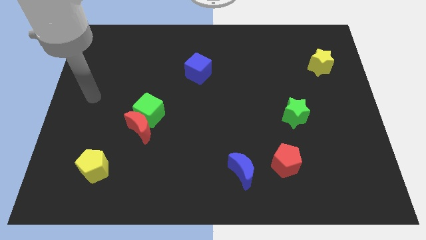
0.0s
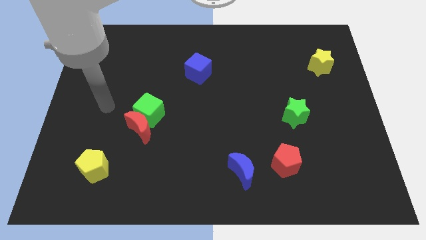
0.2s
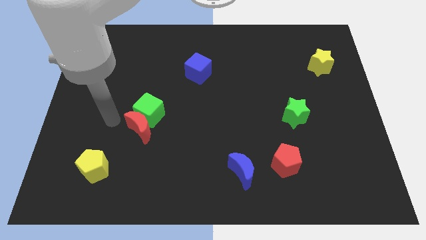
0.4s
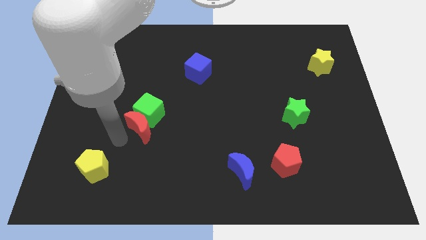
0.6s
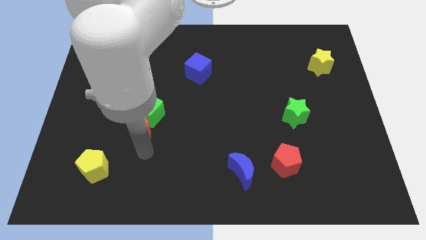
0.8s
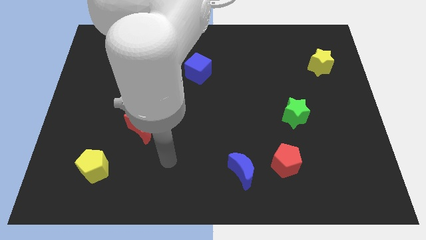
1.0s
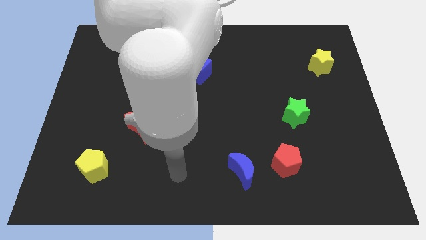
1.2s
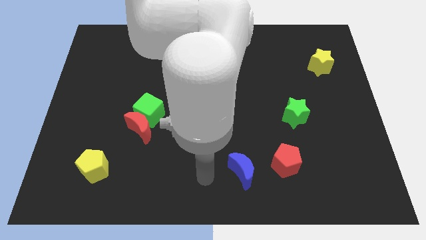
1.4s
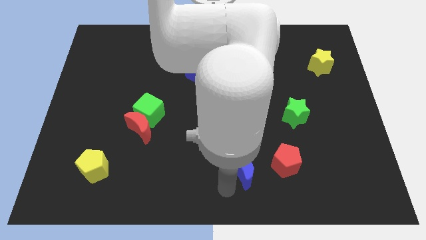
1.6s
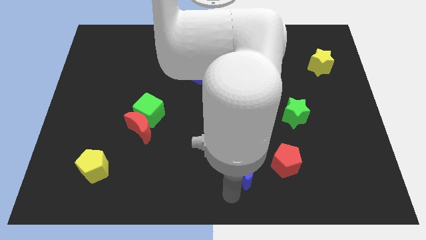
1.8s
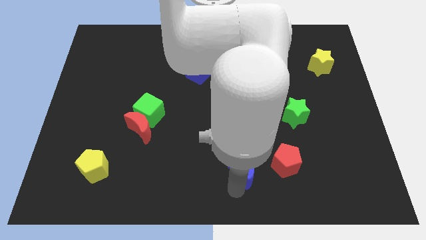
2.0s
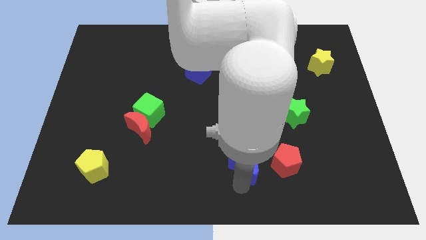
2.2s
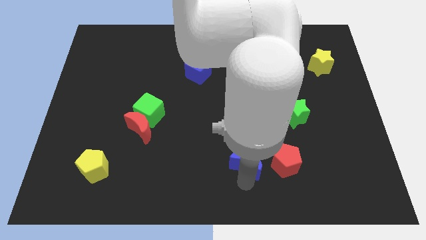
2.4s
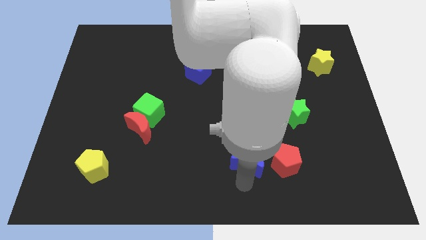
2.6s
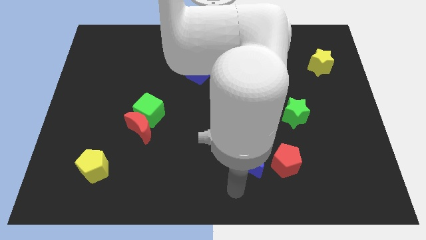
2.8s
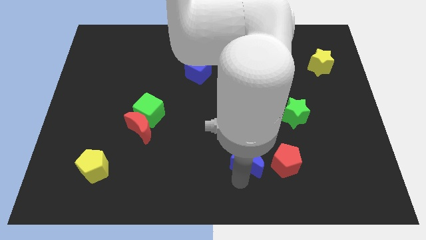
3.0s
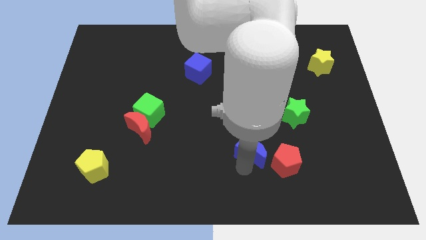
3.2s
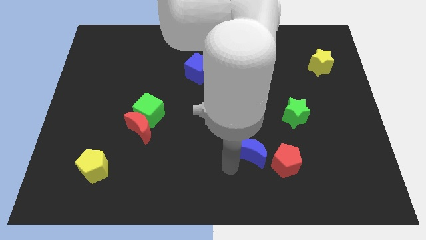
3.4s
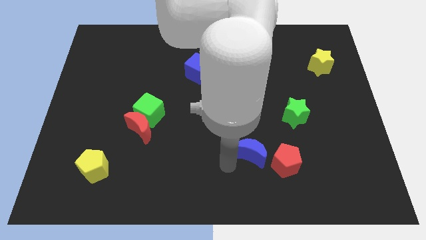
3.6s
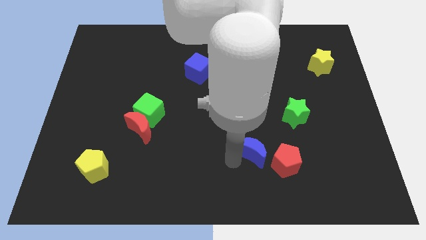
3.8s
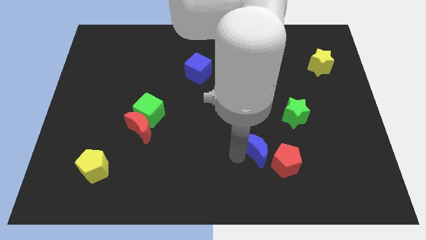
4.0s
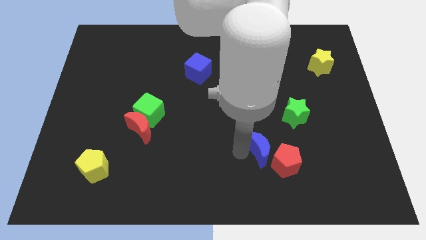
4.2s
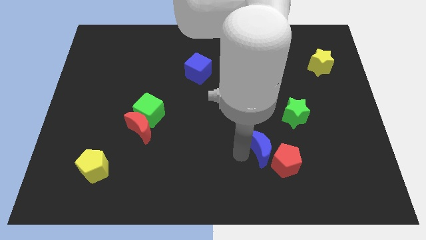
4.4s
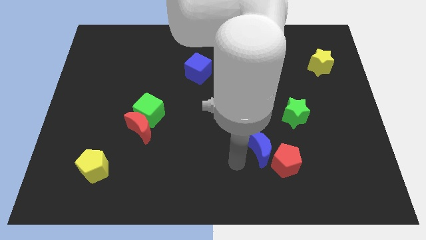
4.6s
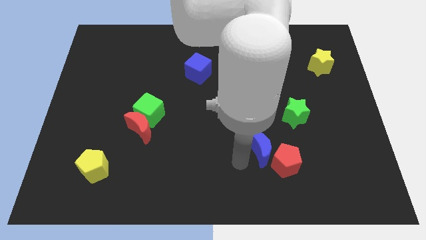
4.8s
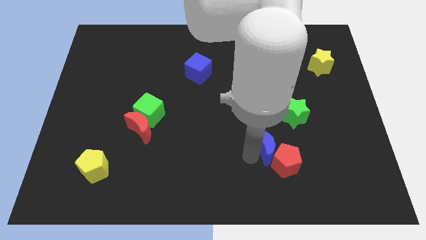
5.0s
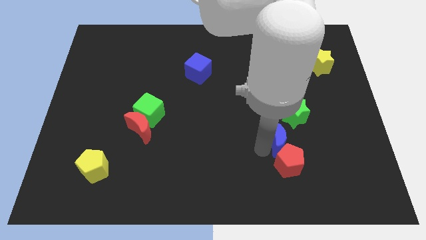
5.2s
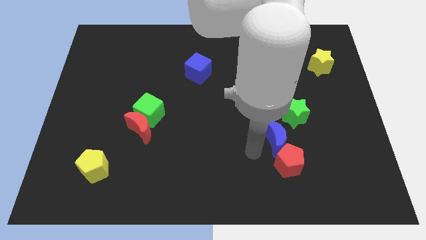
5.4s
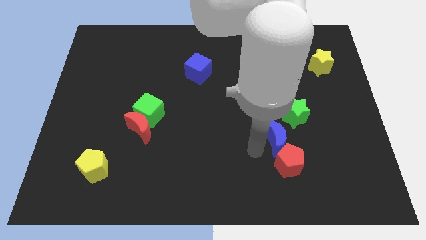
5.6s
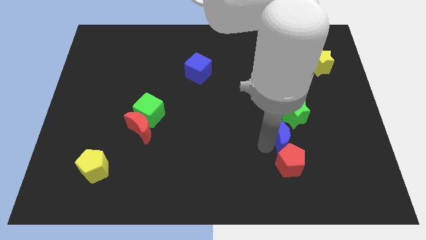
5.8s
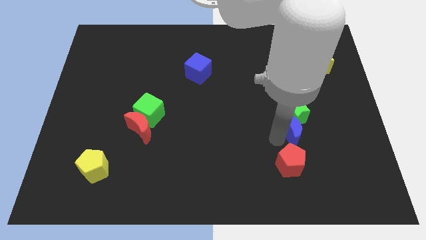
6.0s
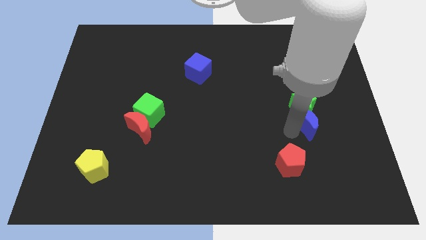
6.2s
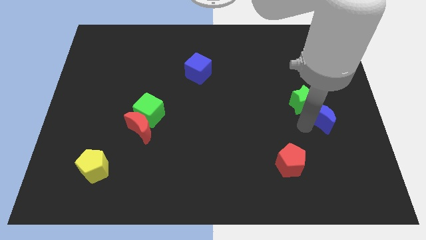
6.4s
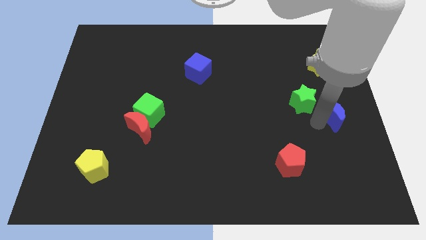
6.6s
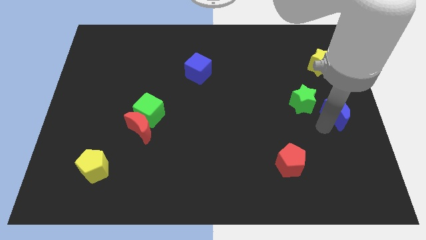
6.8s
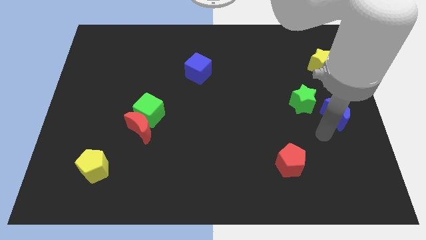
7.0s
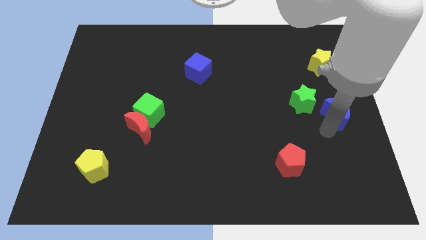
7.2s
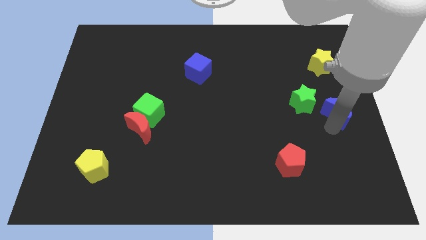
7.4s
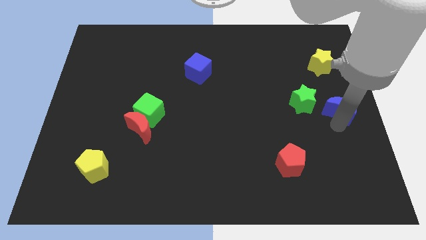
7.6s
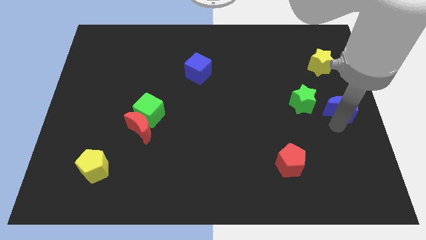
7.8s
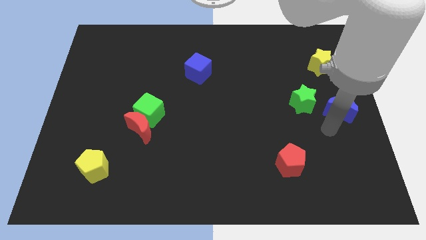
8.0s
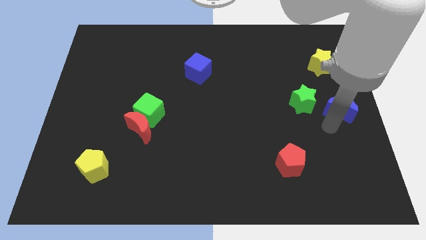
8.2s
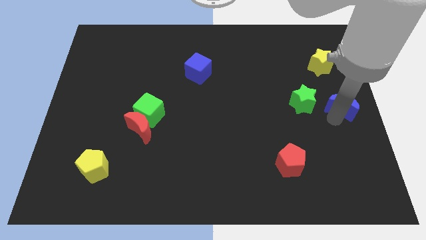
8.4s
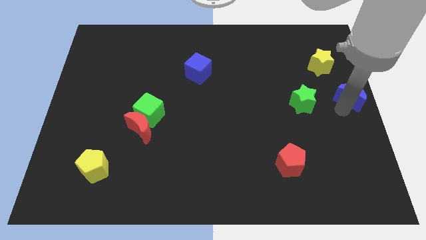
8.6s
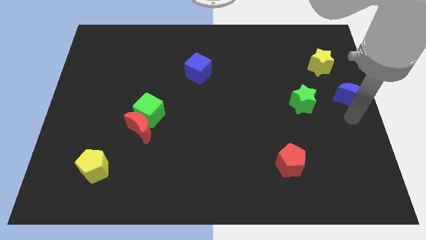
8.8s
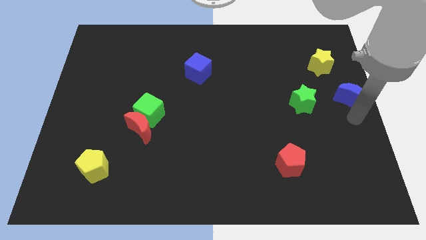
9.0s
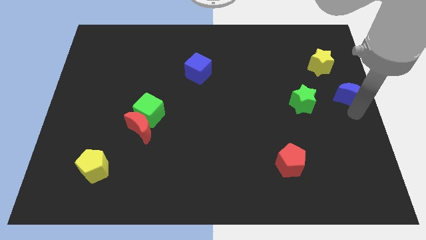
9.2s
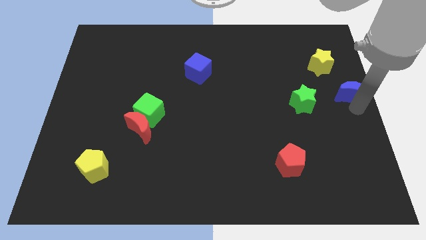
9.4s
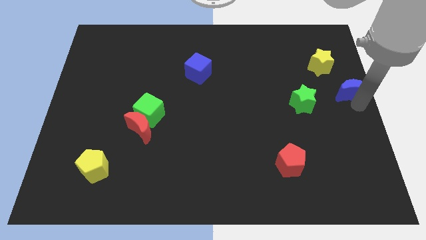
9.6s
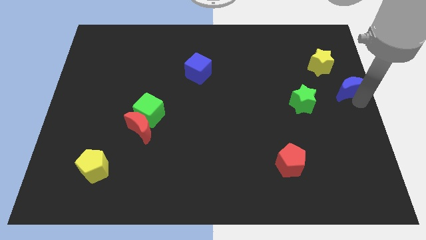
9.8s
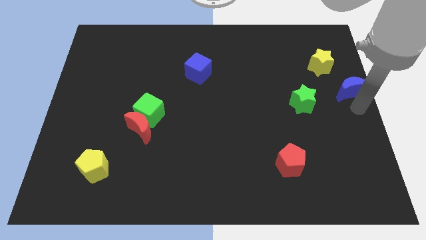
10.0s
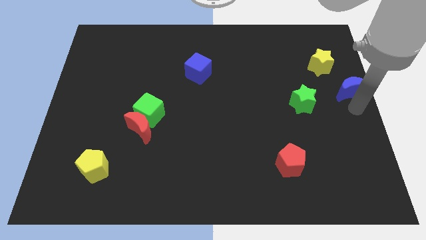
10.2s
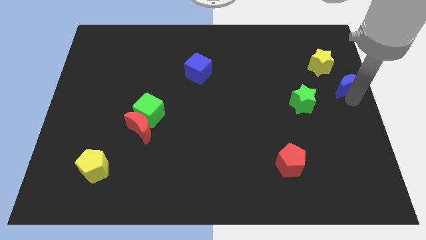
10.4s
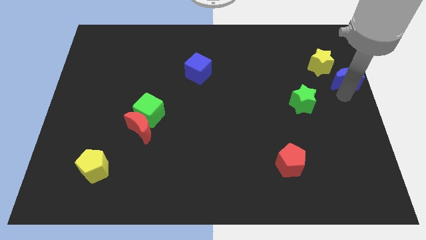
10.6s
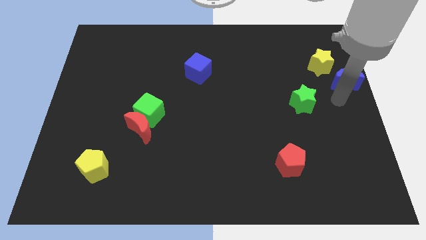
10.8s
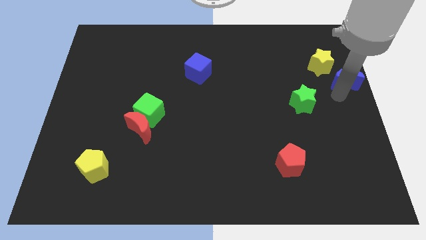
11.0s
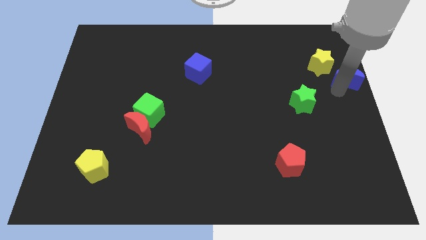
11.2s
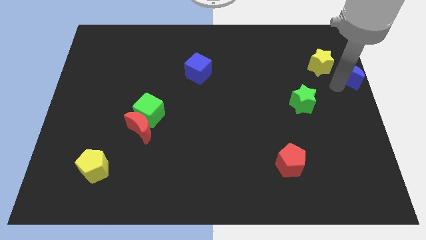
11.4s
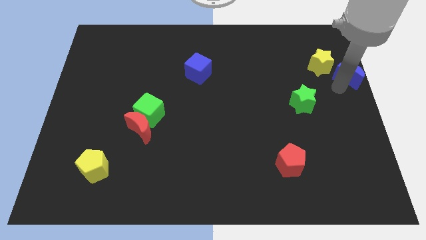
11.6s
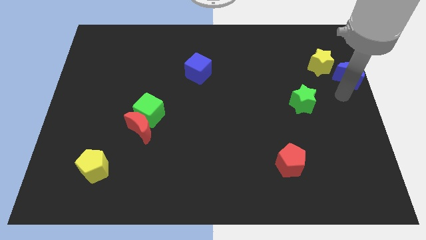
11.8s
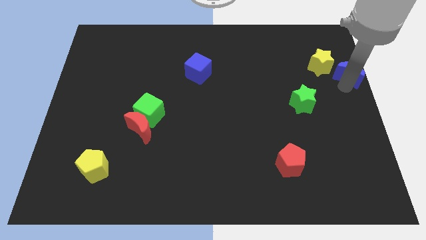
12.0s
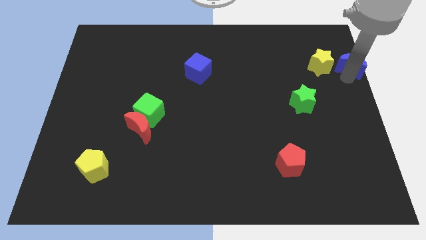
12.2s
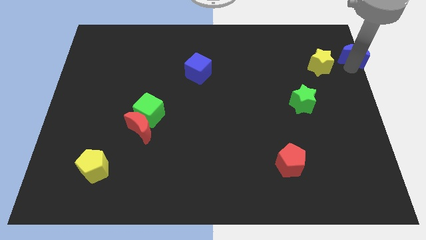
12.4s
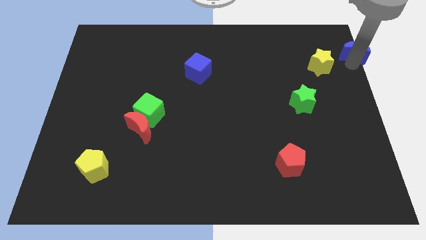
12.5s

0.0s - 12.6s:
move the blue moon to the top right
